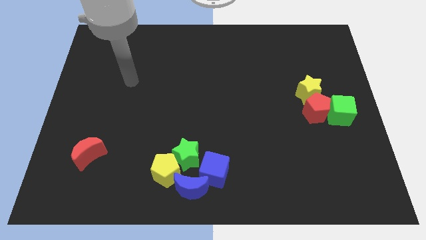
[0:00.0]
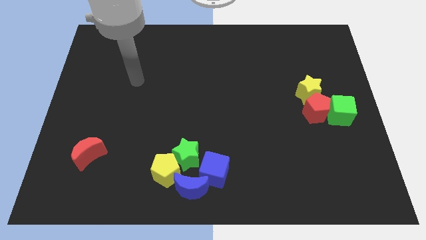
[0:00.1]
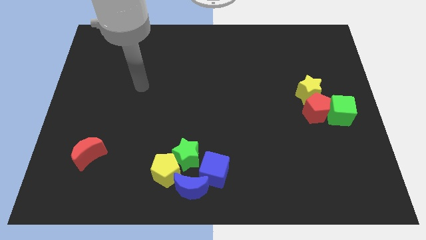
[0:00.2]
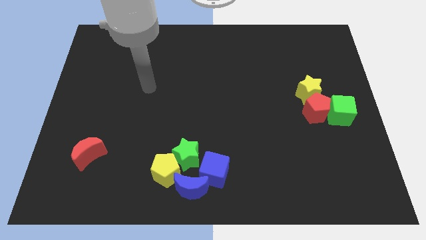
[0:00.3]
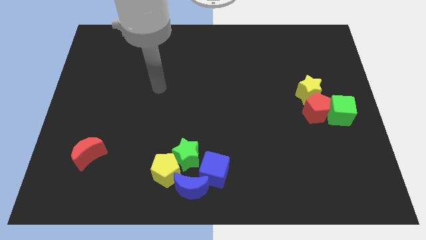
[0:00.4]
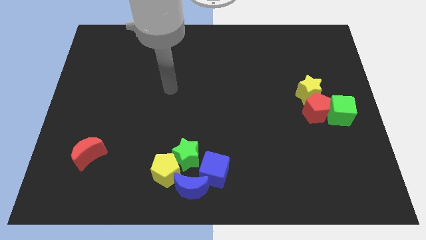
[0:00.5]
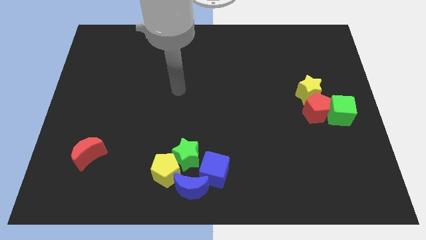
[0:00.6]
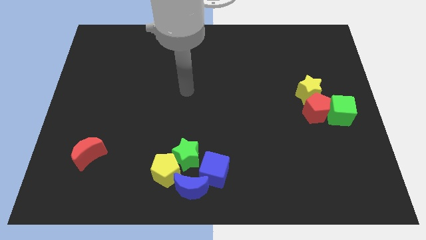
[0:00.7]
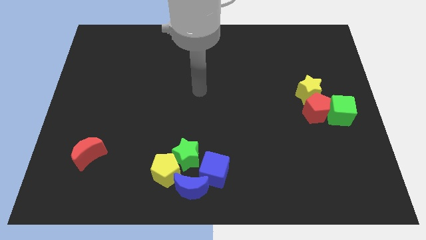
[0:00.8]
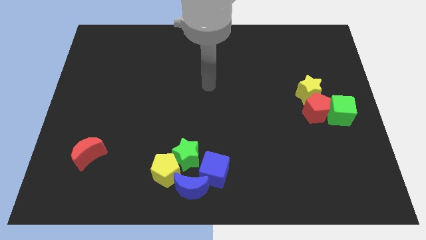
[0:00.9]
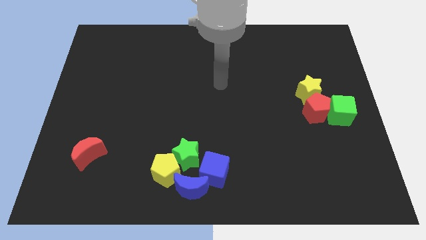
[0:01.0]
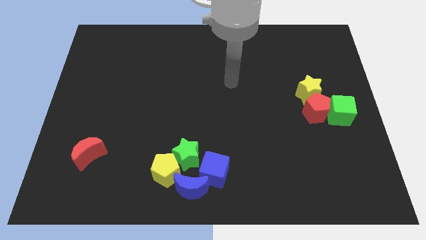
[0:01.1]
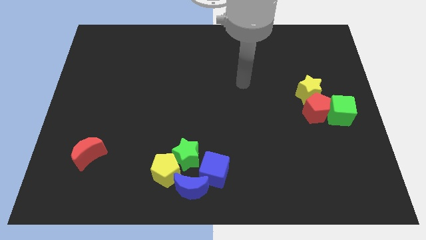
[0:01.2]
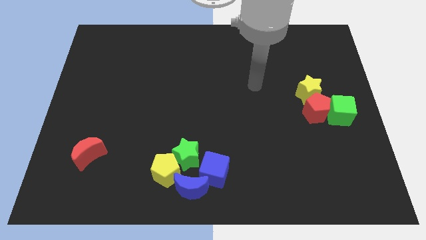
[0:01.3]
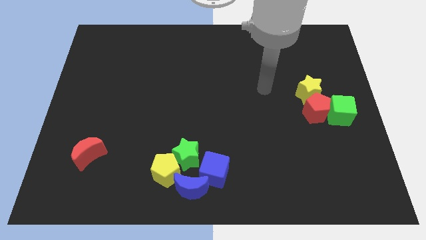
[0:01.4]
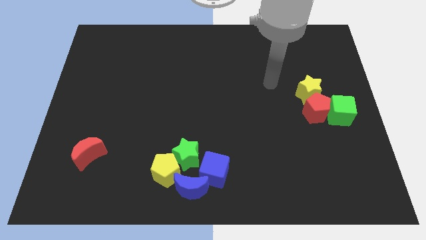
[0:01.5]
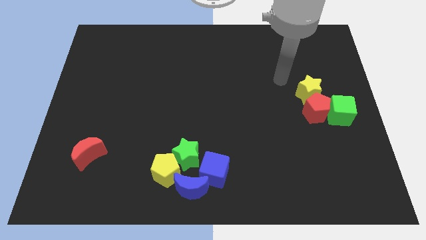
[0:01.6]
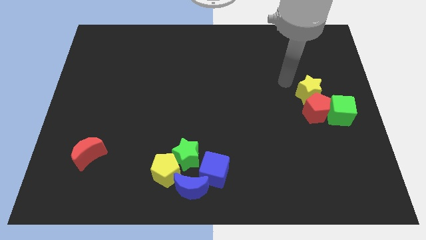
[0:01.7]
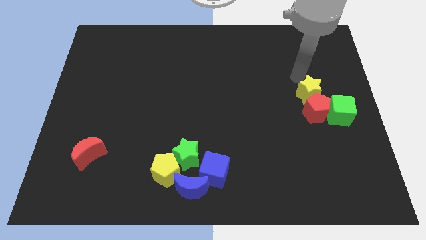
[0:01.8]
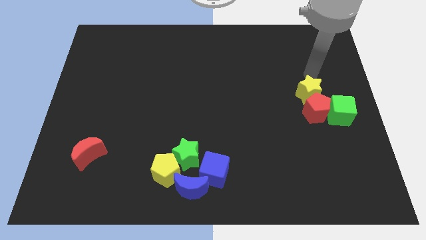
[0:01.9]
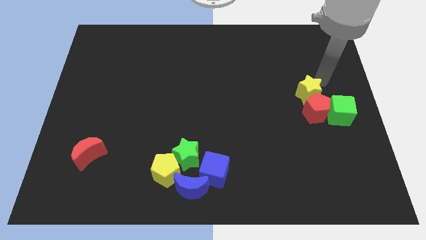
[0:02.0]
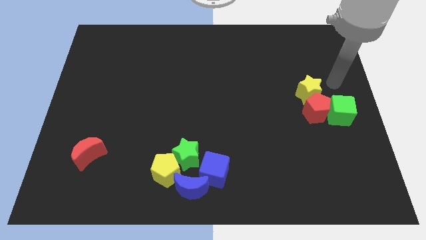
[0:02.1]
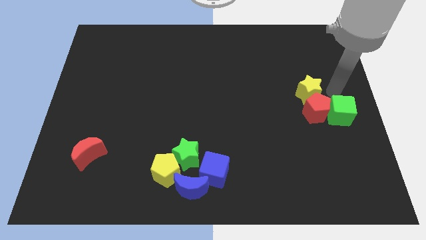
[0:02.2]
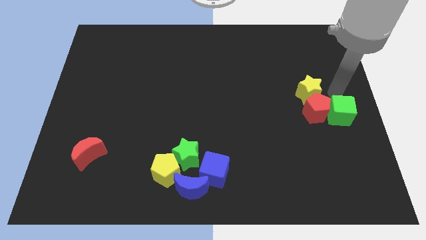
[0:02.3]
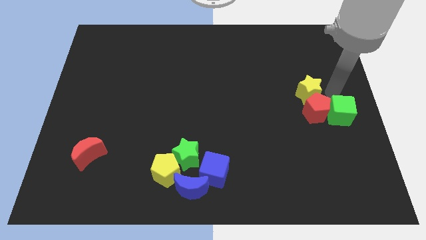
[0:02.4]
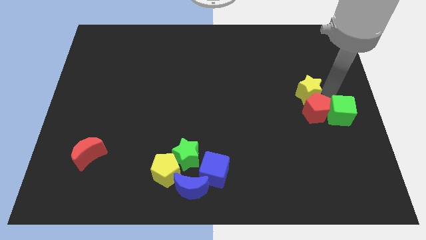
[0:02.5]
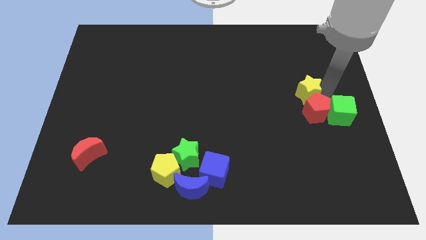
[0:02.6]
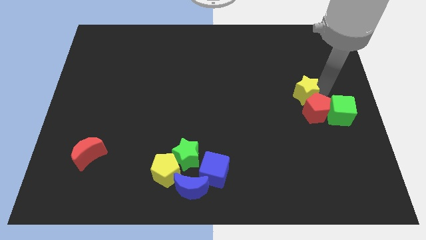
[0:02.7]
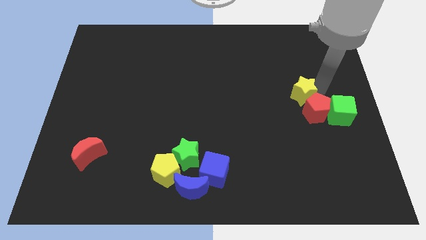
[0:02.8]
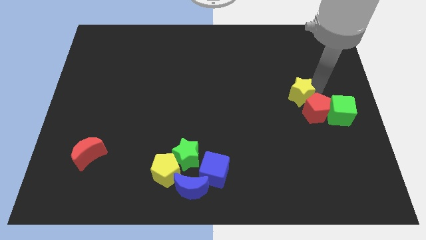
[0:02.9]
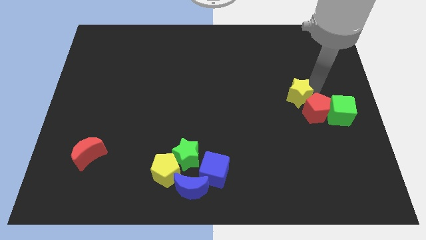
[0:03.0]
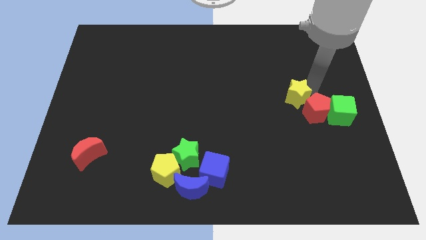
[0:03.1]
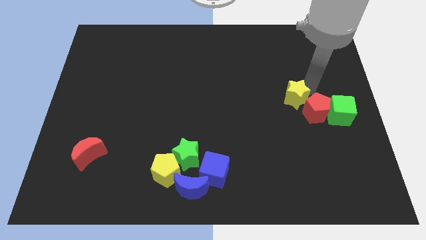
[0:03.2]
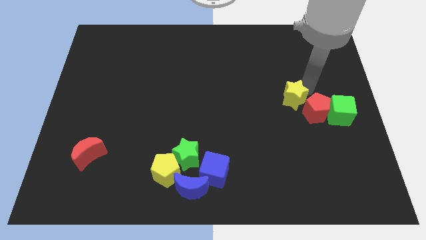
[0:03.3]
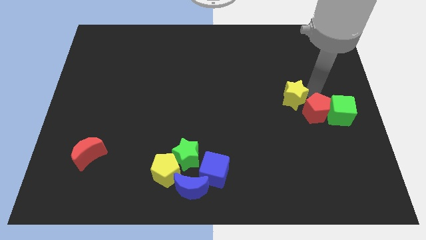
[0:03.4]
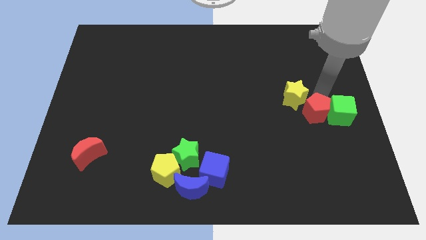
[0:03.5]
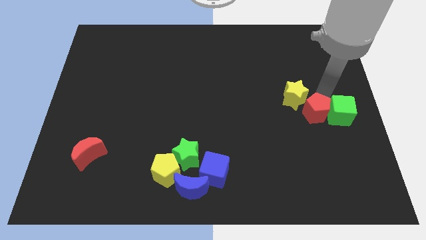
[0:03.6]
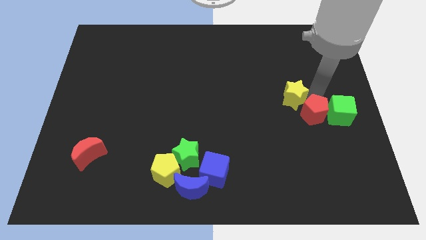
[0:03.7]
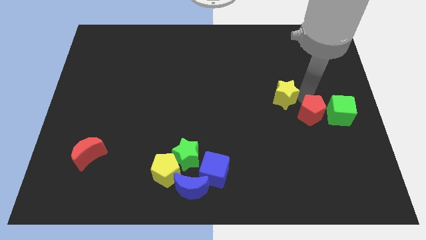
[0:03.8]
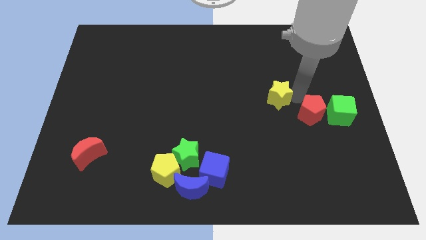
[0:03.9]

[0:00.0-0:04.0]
slide the yellow star to the left somewhat

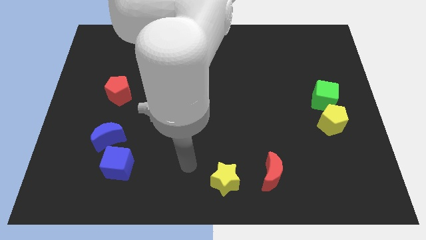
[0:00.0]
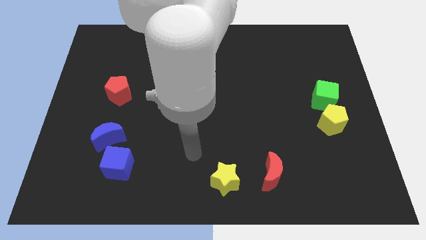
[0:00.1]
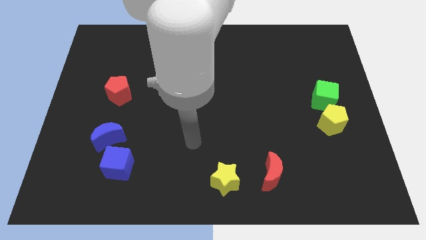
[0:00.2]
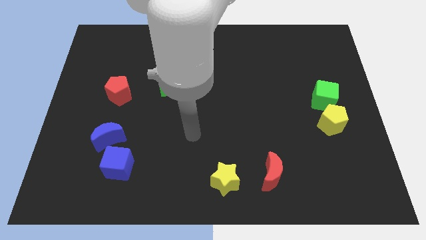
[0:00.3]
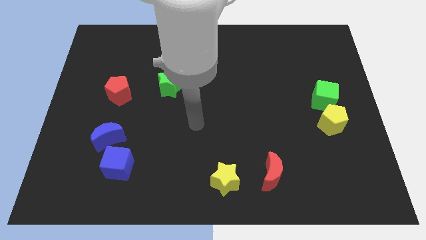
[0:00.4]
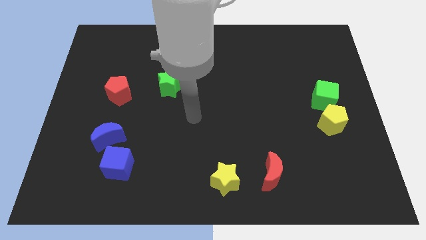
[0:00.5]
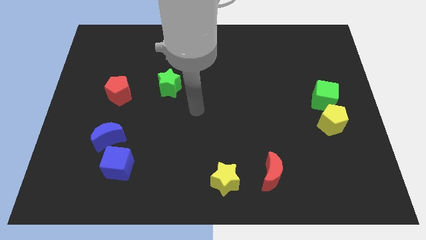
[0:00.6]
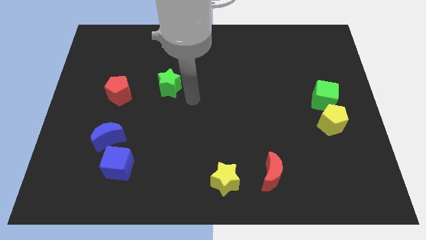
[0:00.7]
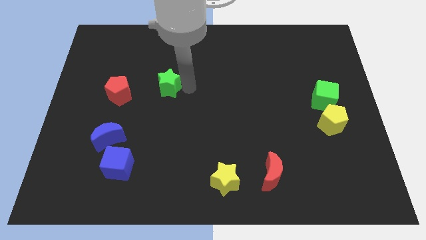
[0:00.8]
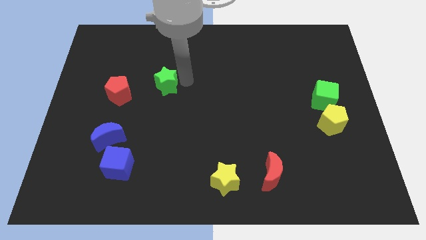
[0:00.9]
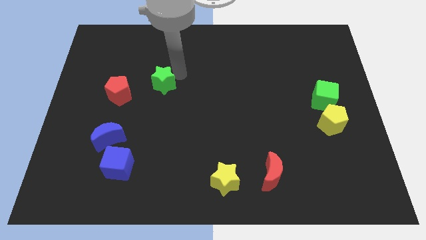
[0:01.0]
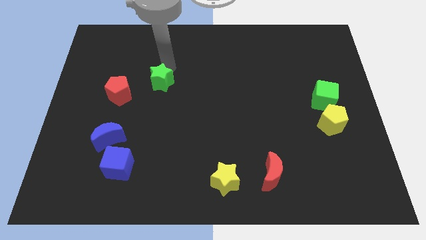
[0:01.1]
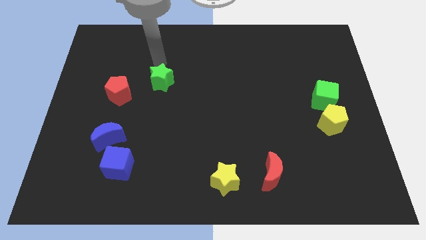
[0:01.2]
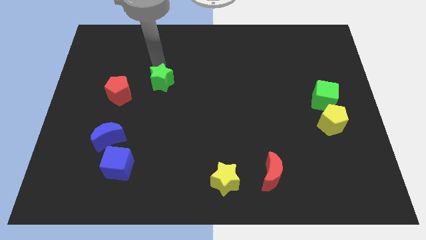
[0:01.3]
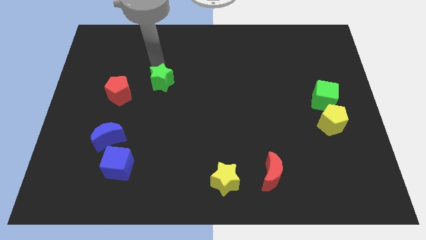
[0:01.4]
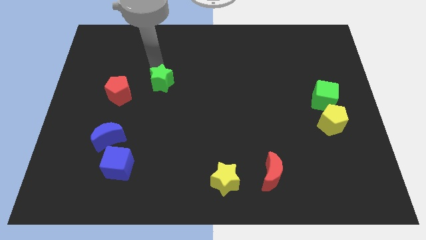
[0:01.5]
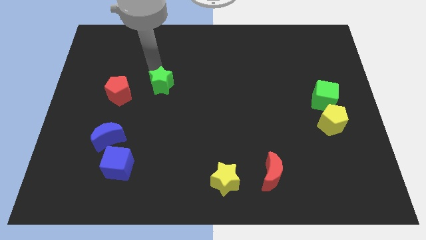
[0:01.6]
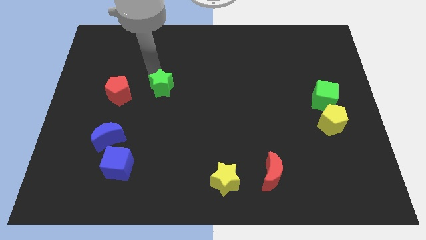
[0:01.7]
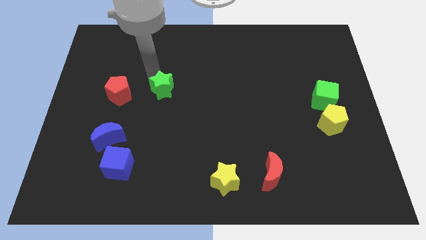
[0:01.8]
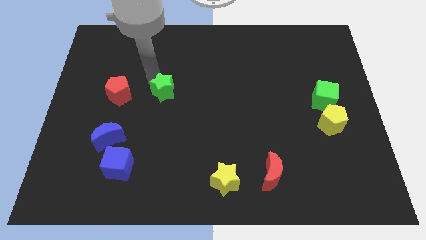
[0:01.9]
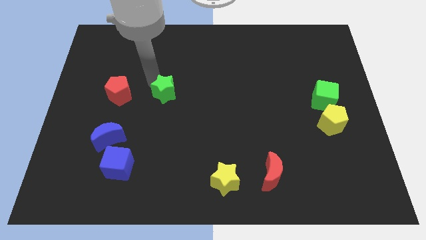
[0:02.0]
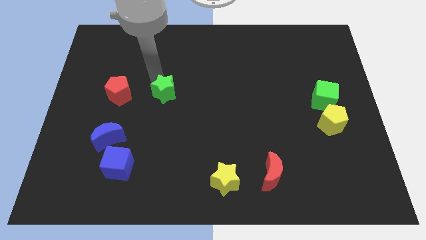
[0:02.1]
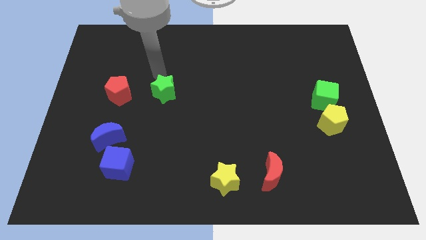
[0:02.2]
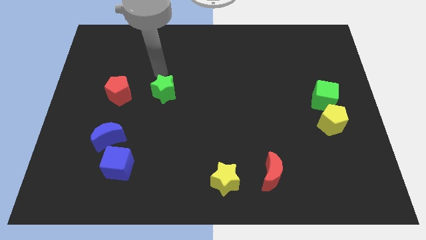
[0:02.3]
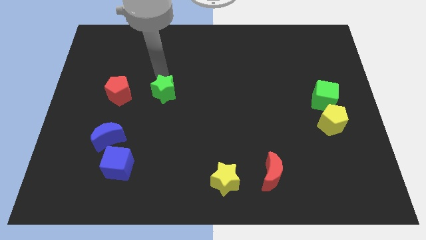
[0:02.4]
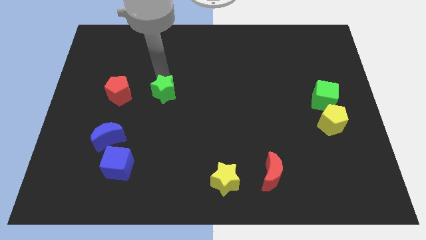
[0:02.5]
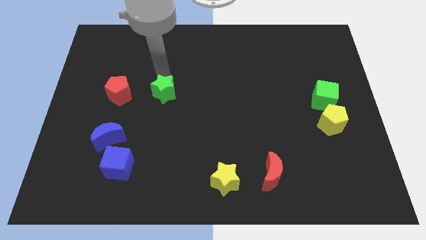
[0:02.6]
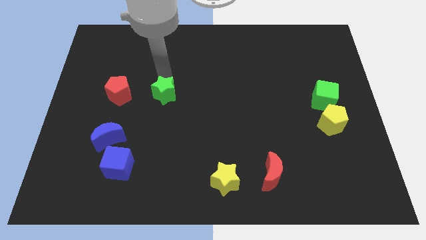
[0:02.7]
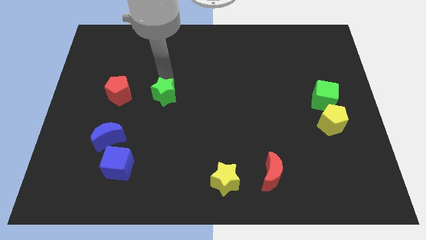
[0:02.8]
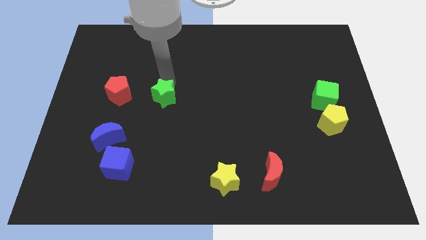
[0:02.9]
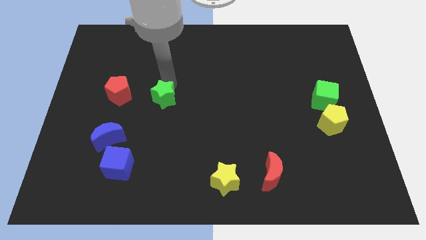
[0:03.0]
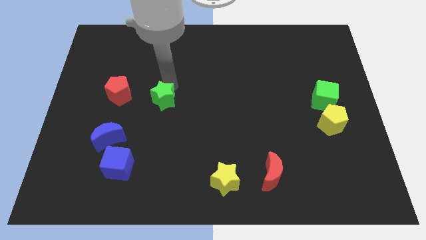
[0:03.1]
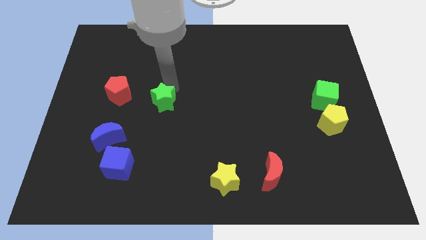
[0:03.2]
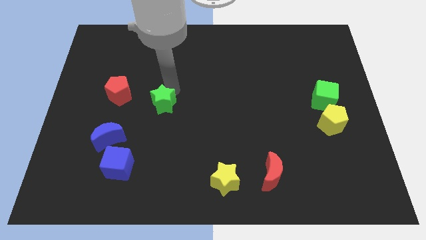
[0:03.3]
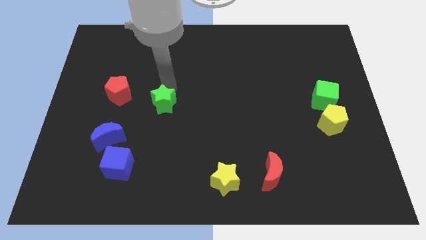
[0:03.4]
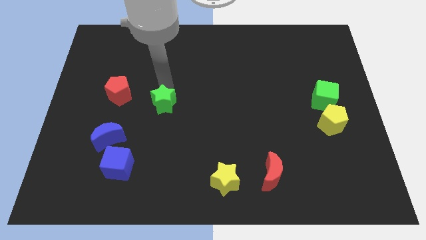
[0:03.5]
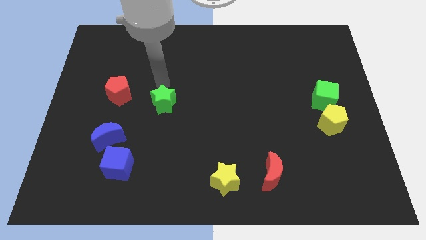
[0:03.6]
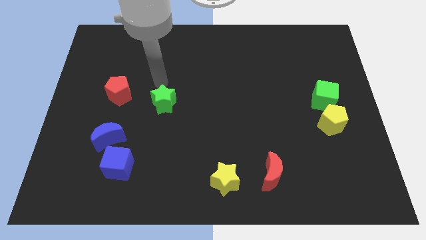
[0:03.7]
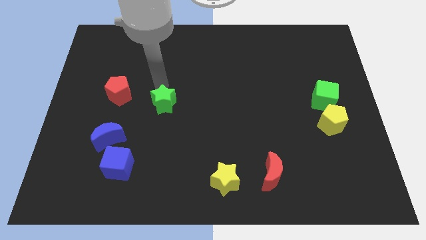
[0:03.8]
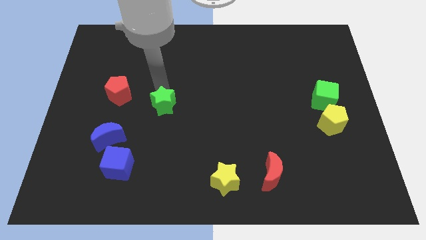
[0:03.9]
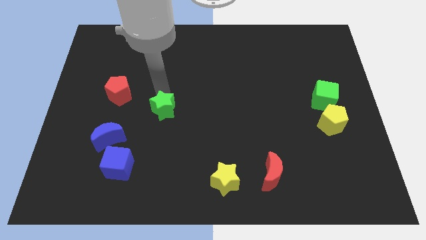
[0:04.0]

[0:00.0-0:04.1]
slide the green star a little downwards
